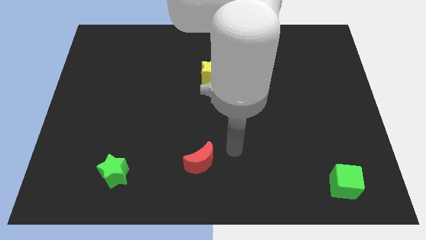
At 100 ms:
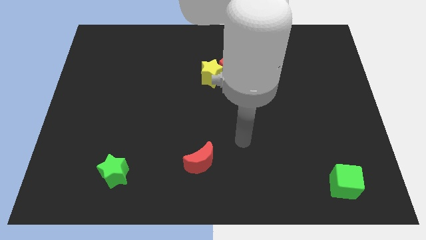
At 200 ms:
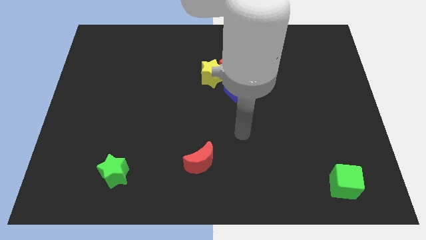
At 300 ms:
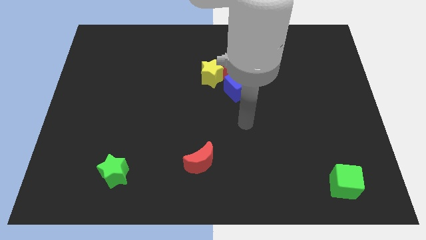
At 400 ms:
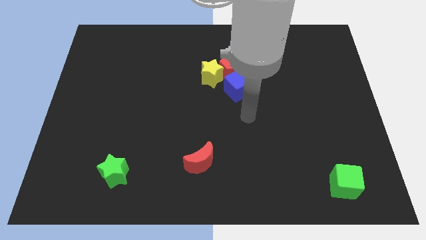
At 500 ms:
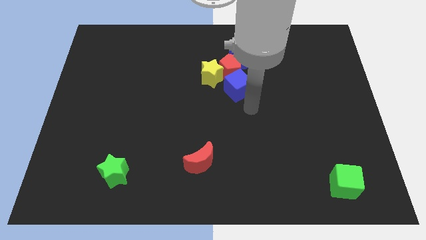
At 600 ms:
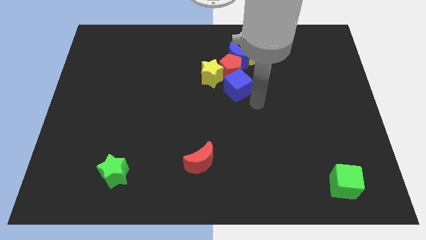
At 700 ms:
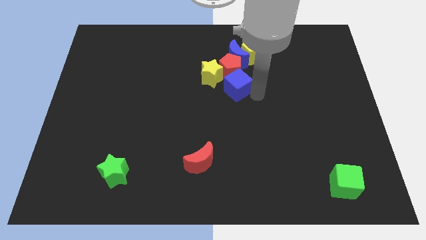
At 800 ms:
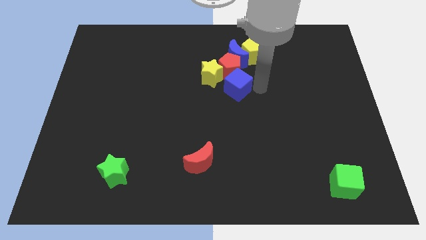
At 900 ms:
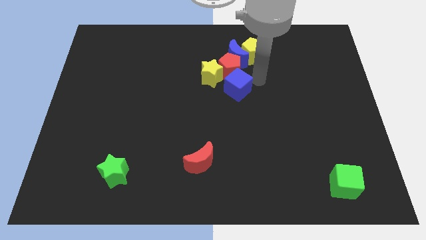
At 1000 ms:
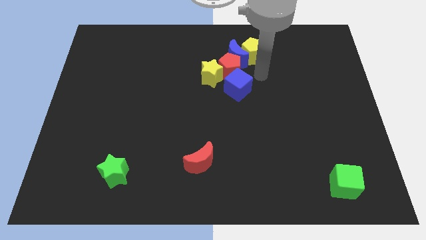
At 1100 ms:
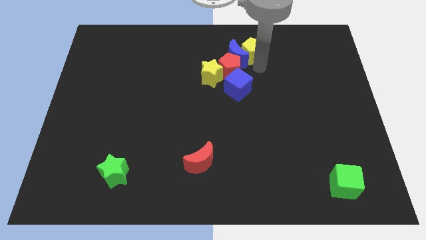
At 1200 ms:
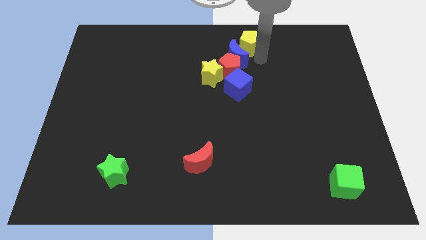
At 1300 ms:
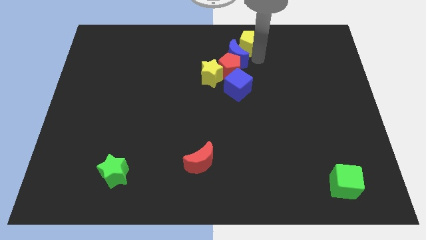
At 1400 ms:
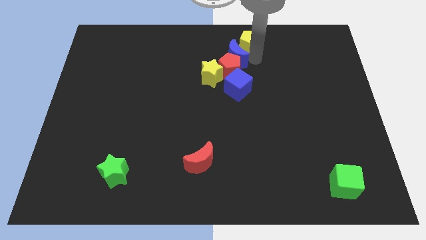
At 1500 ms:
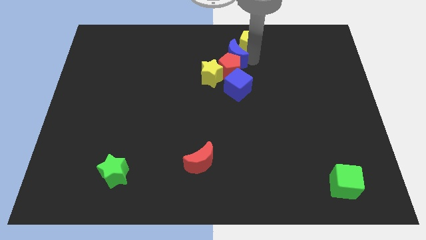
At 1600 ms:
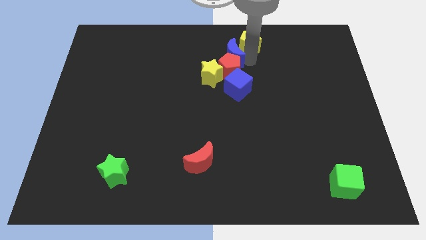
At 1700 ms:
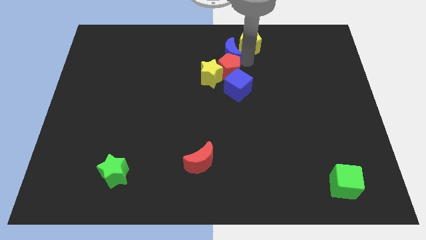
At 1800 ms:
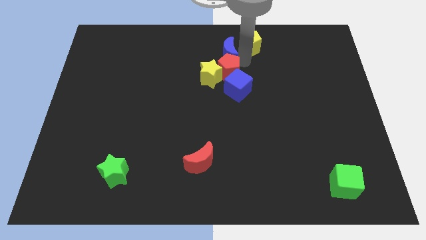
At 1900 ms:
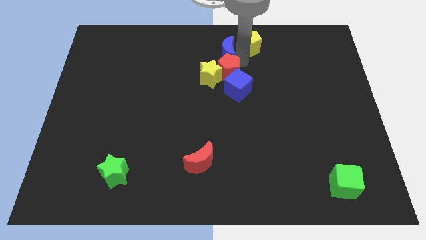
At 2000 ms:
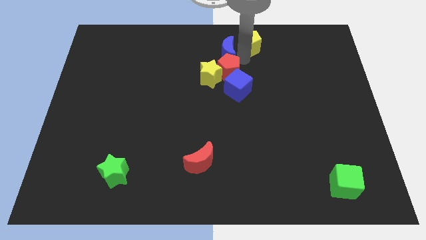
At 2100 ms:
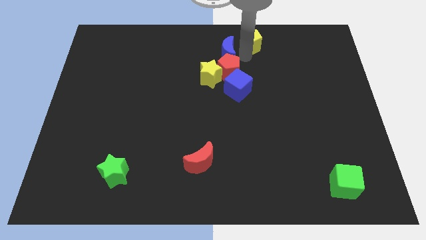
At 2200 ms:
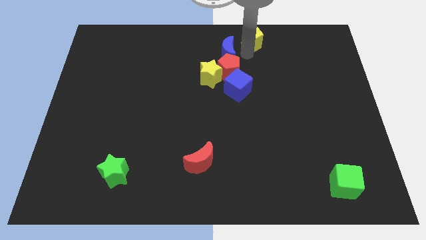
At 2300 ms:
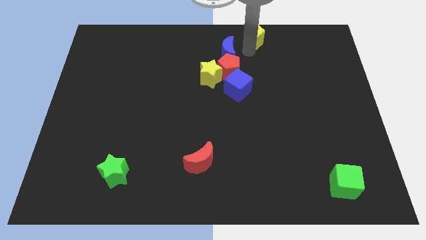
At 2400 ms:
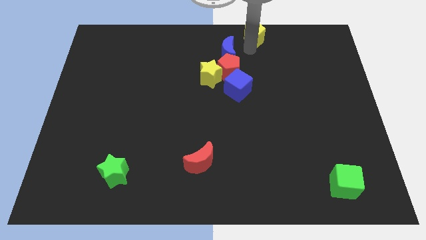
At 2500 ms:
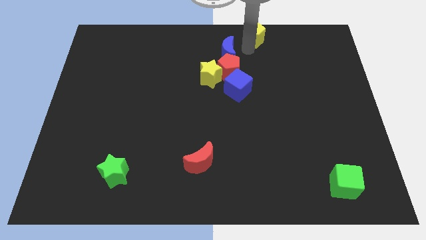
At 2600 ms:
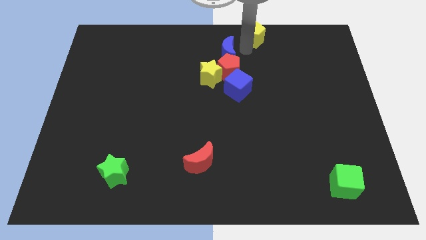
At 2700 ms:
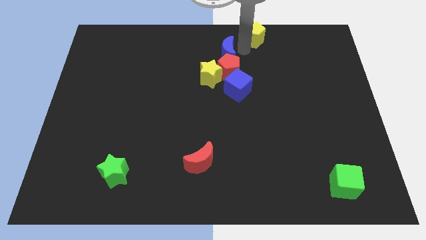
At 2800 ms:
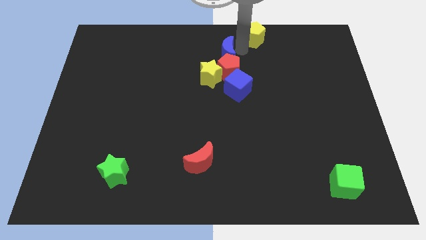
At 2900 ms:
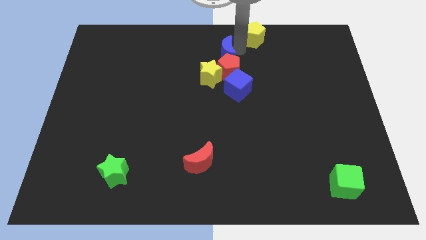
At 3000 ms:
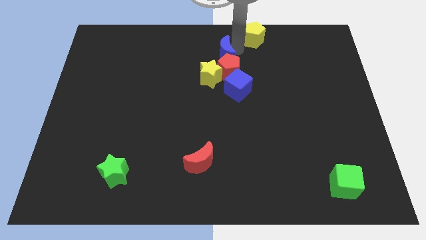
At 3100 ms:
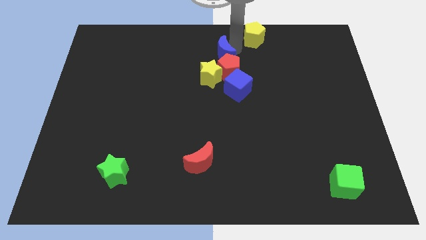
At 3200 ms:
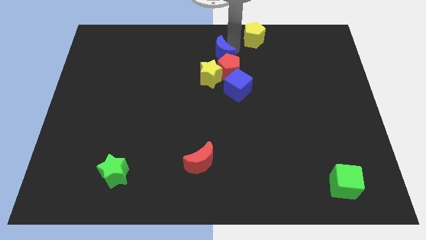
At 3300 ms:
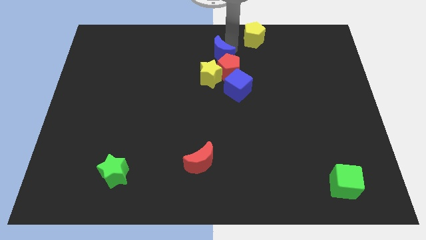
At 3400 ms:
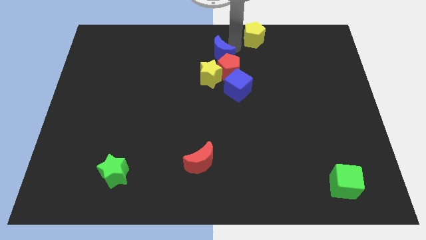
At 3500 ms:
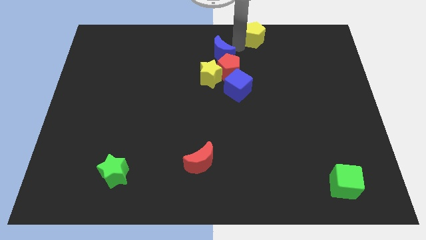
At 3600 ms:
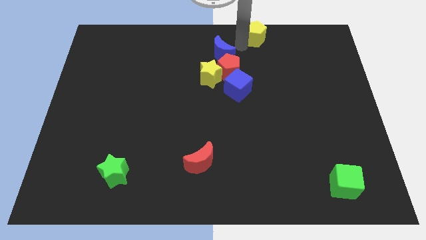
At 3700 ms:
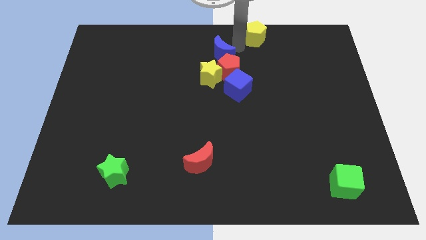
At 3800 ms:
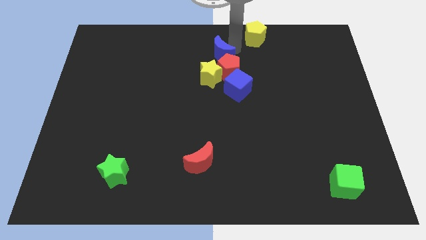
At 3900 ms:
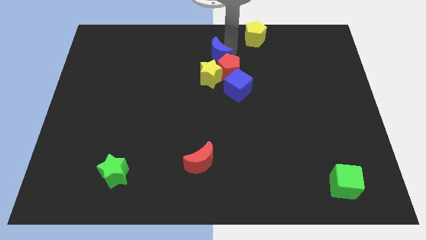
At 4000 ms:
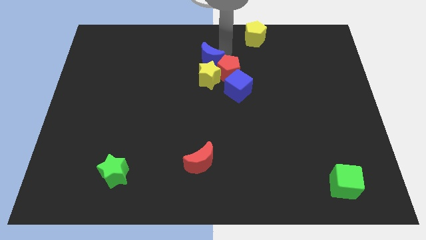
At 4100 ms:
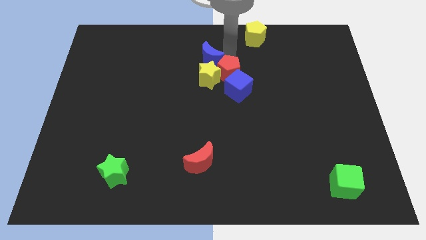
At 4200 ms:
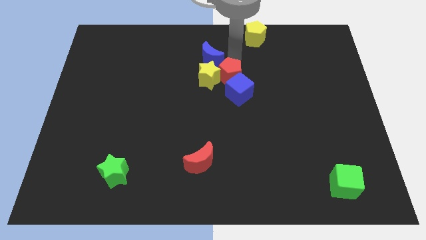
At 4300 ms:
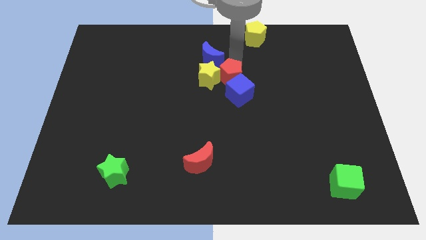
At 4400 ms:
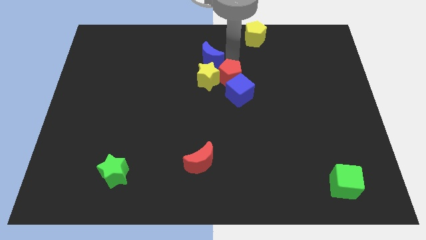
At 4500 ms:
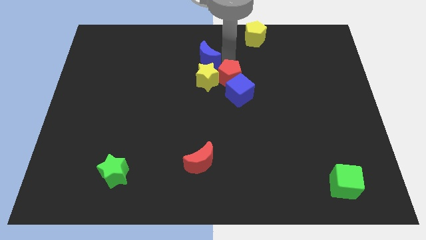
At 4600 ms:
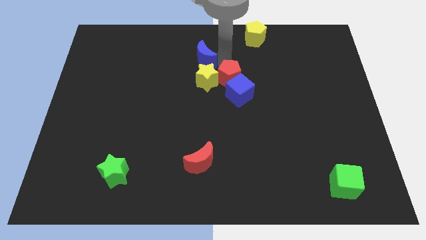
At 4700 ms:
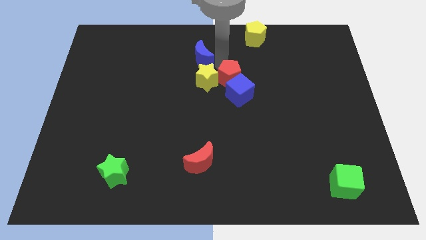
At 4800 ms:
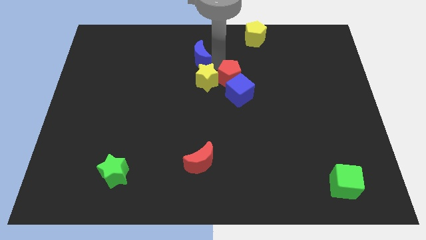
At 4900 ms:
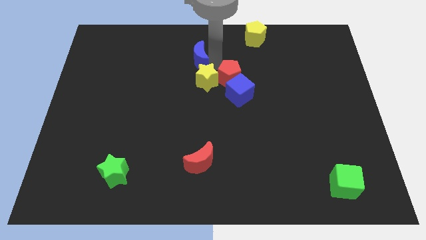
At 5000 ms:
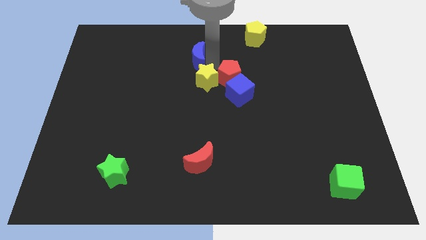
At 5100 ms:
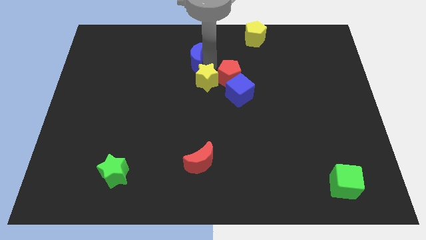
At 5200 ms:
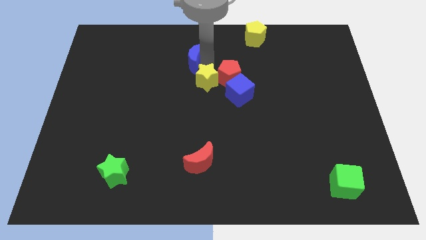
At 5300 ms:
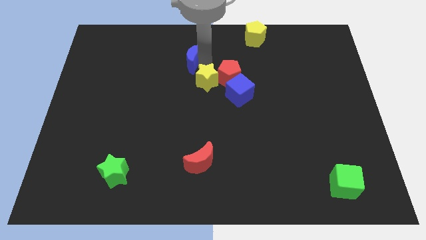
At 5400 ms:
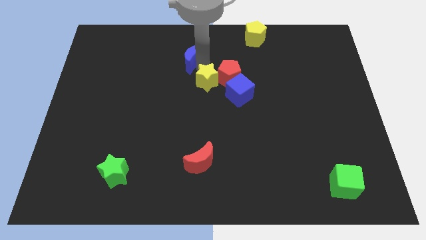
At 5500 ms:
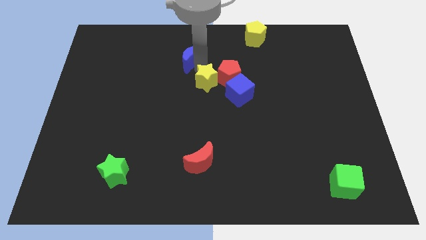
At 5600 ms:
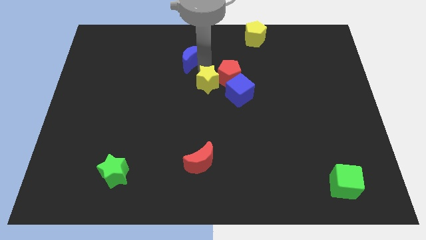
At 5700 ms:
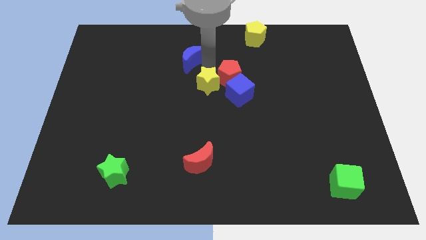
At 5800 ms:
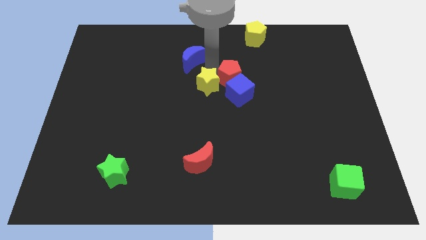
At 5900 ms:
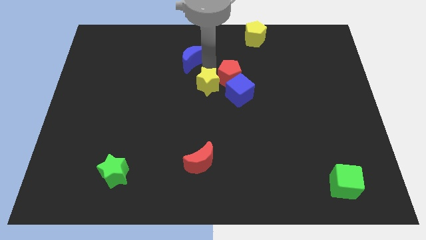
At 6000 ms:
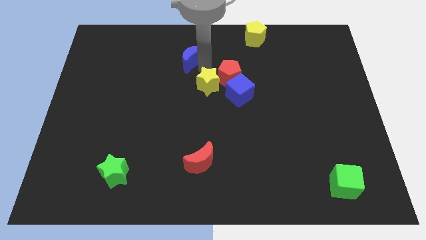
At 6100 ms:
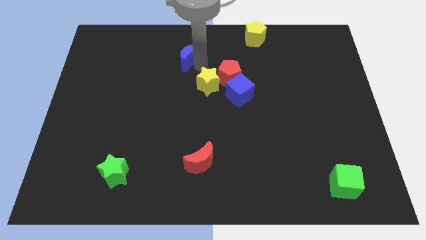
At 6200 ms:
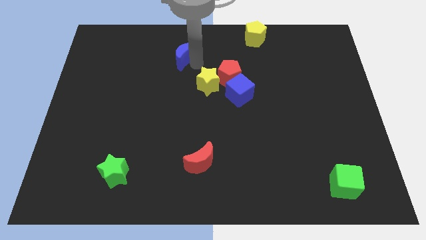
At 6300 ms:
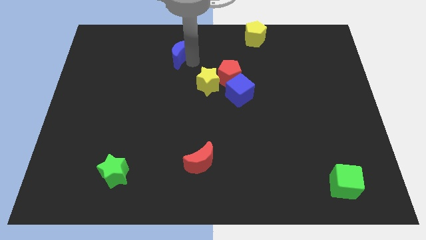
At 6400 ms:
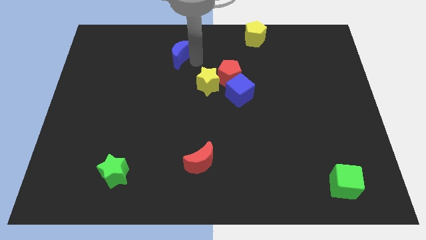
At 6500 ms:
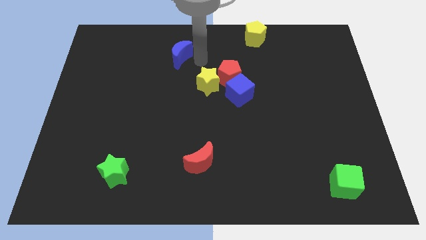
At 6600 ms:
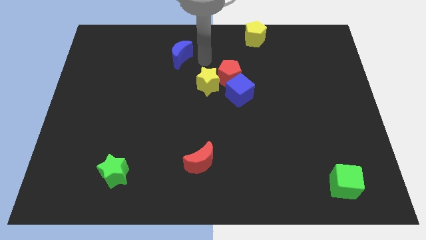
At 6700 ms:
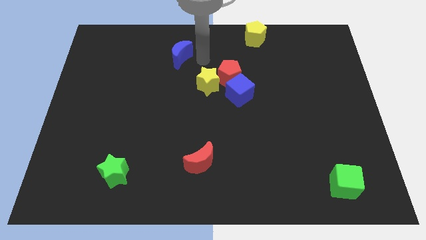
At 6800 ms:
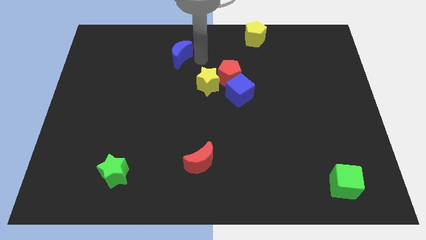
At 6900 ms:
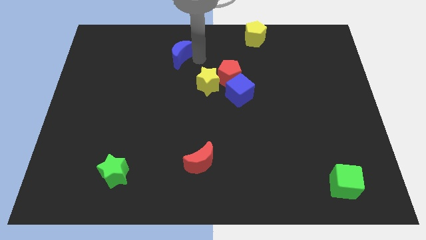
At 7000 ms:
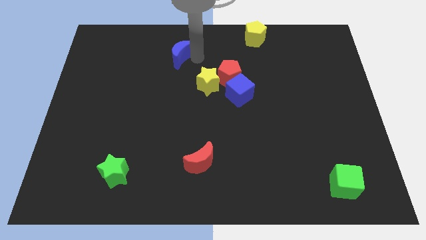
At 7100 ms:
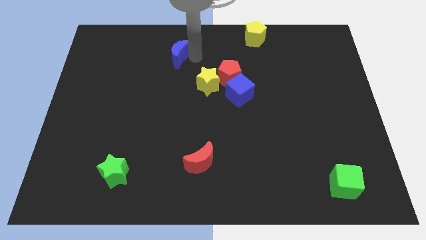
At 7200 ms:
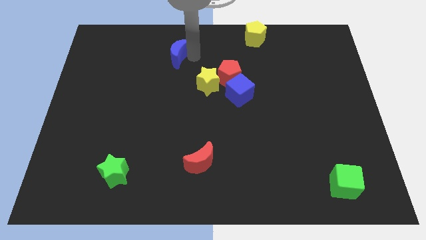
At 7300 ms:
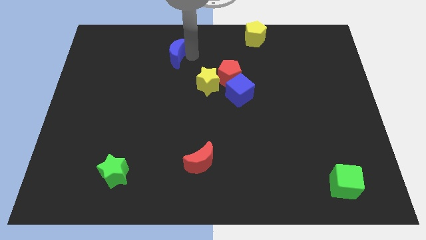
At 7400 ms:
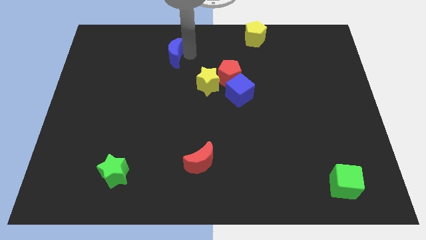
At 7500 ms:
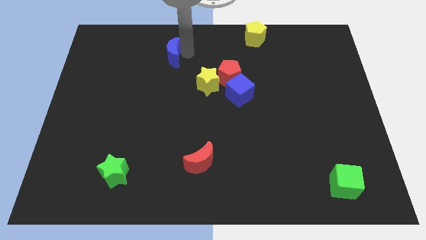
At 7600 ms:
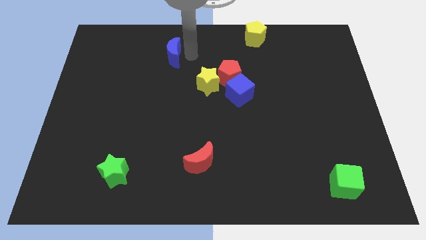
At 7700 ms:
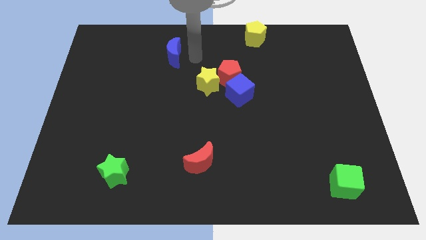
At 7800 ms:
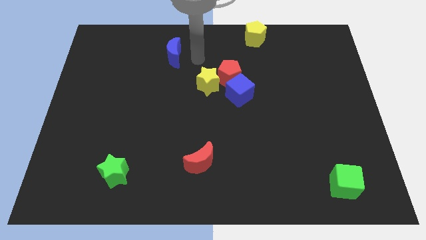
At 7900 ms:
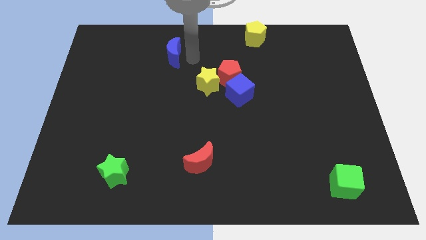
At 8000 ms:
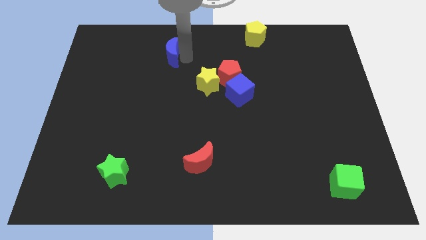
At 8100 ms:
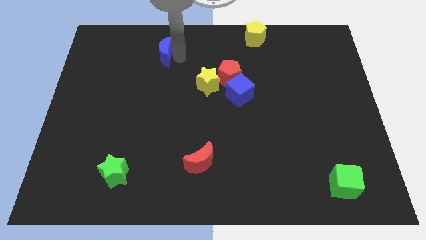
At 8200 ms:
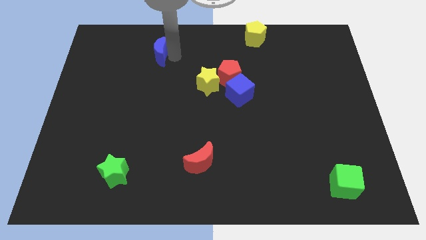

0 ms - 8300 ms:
push the blue moon left
